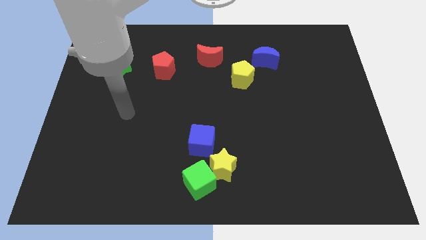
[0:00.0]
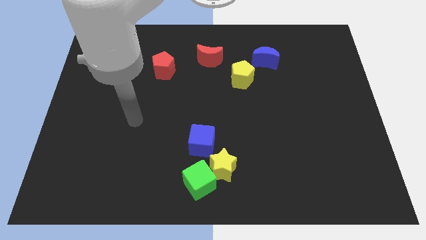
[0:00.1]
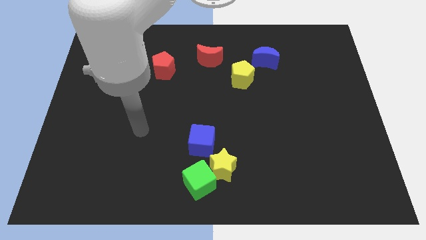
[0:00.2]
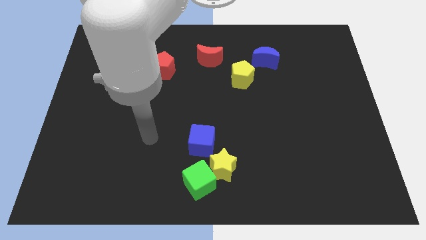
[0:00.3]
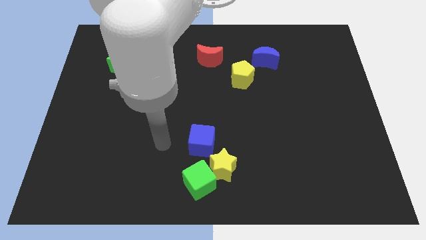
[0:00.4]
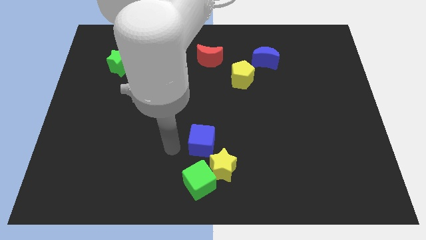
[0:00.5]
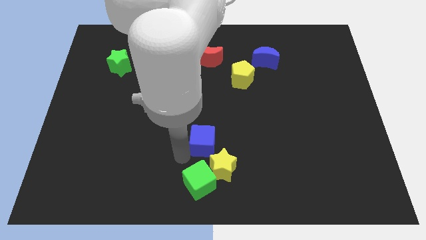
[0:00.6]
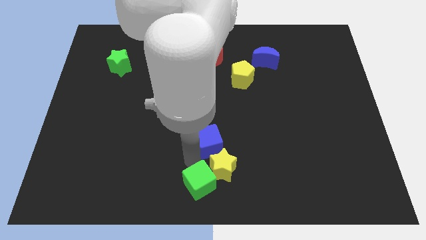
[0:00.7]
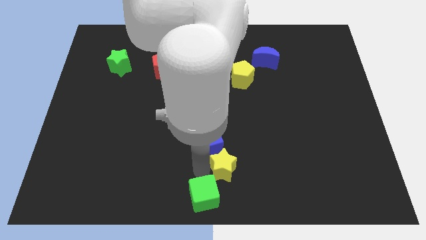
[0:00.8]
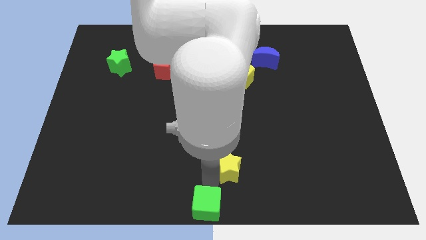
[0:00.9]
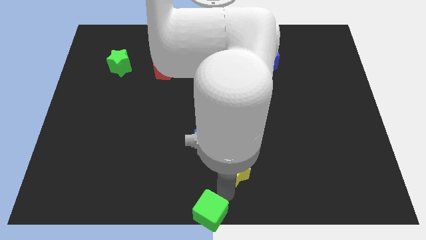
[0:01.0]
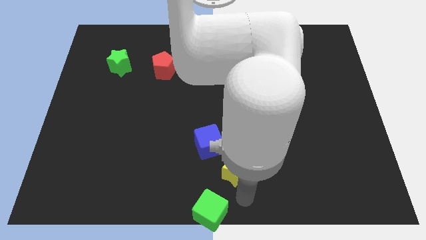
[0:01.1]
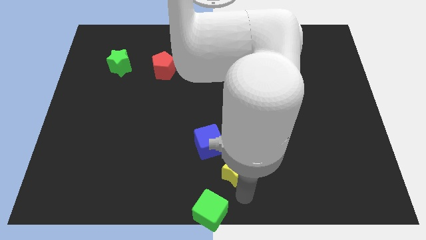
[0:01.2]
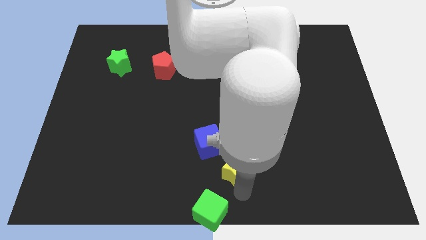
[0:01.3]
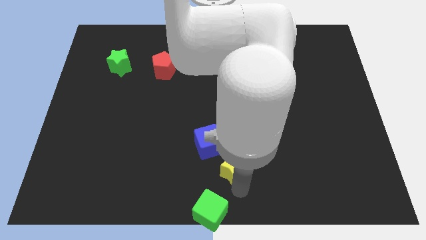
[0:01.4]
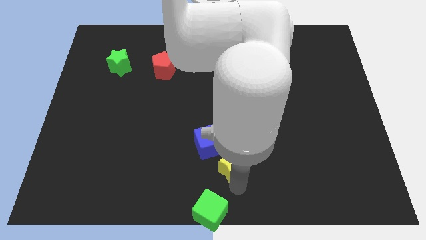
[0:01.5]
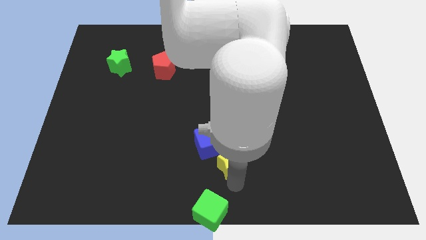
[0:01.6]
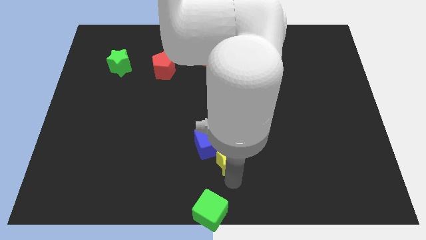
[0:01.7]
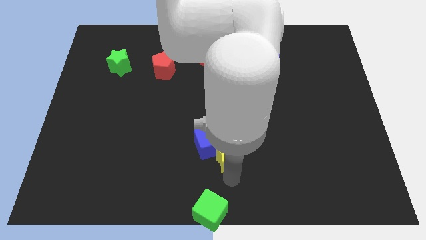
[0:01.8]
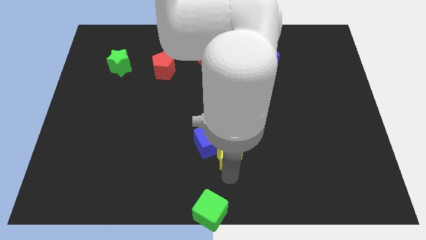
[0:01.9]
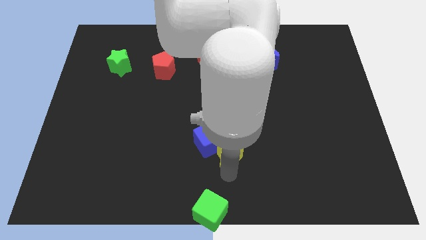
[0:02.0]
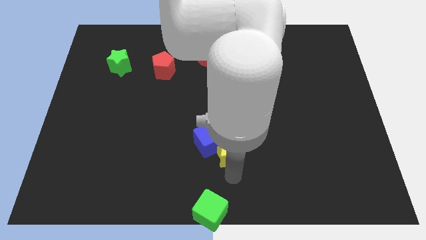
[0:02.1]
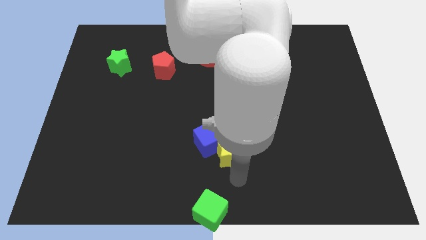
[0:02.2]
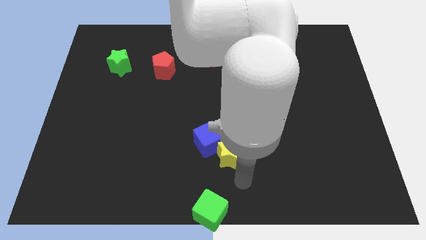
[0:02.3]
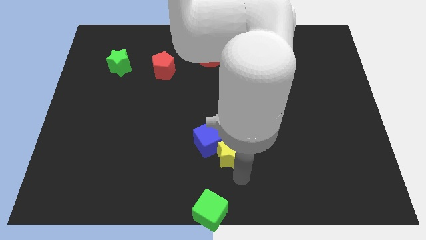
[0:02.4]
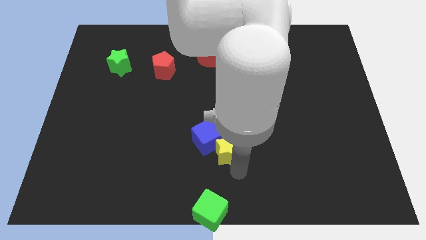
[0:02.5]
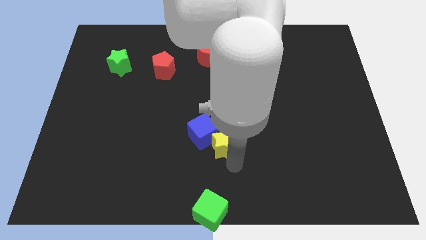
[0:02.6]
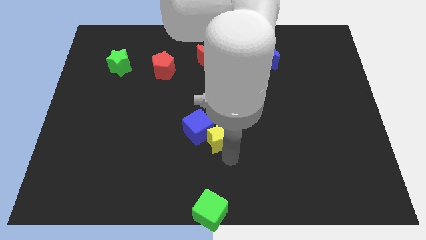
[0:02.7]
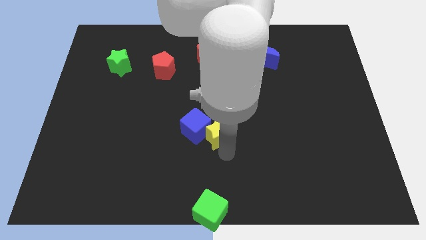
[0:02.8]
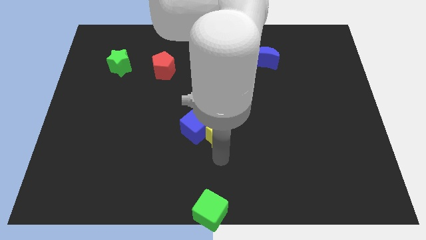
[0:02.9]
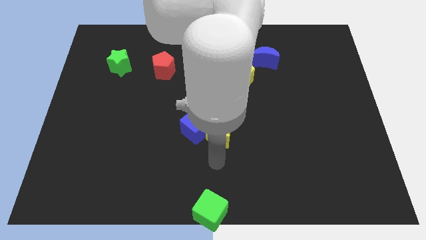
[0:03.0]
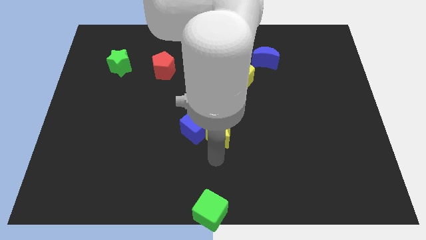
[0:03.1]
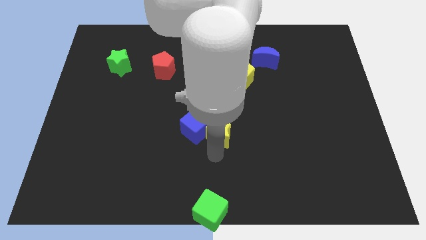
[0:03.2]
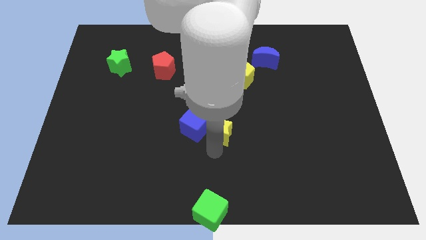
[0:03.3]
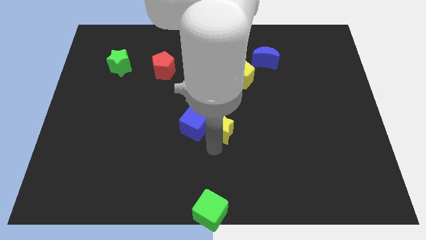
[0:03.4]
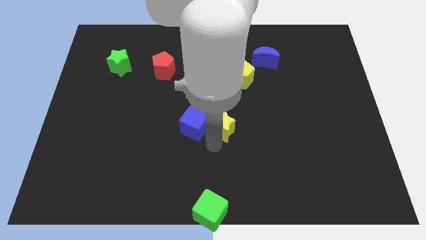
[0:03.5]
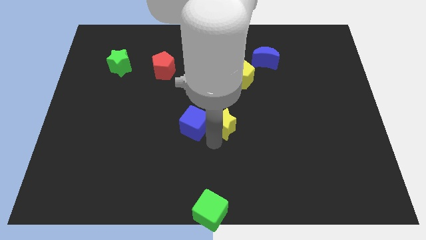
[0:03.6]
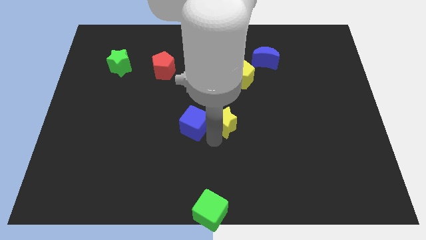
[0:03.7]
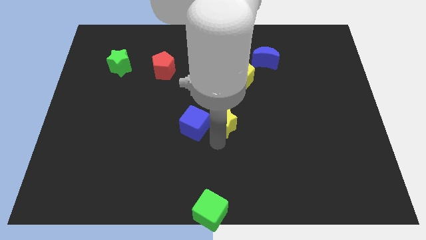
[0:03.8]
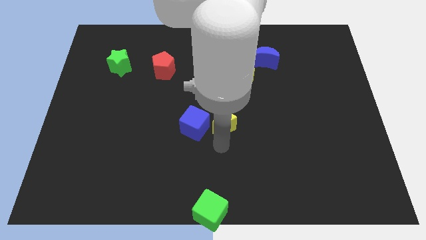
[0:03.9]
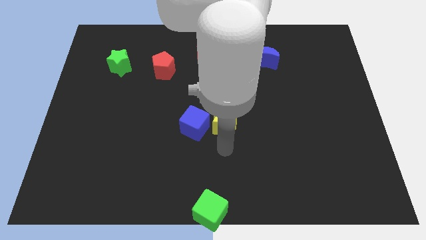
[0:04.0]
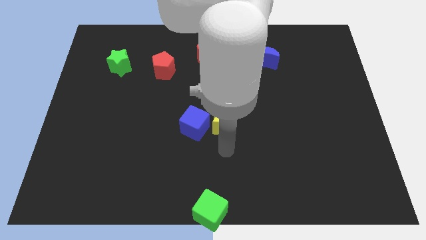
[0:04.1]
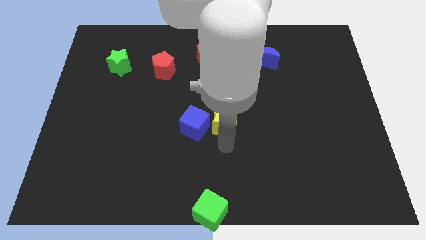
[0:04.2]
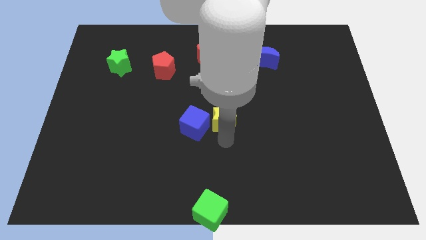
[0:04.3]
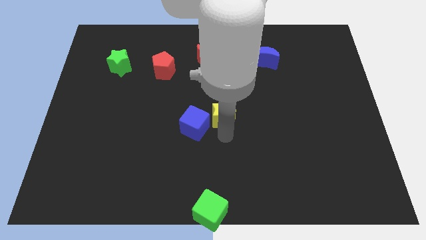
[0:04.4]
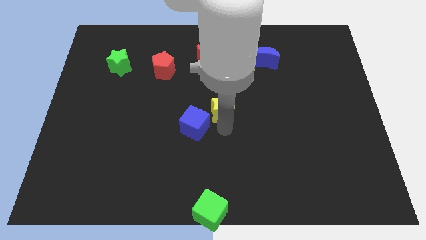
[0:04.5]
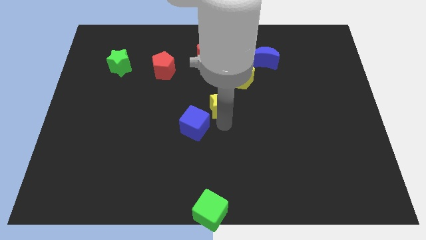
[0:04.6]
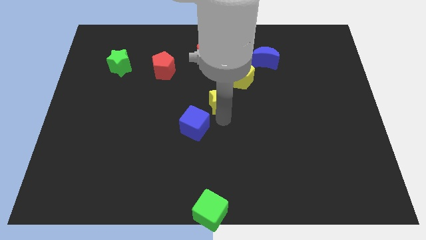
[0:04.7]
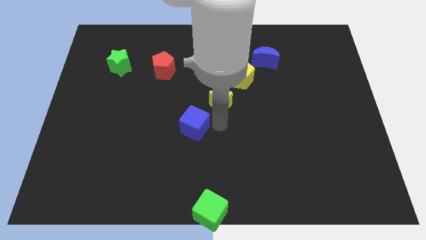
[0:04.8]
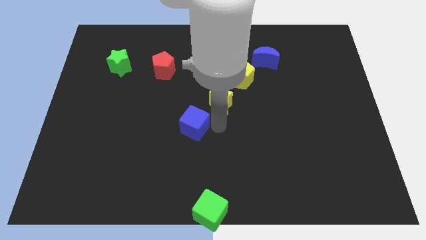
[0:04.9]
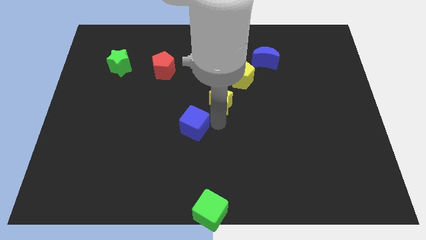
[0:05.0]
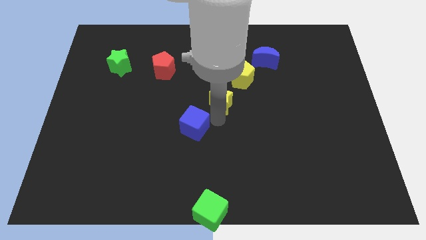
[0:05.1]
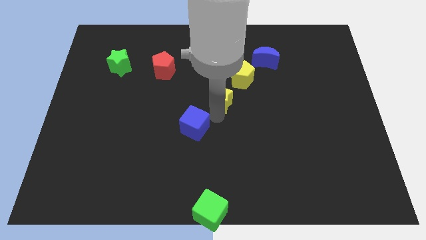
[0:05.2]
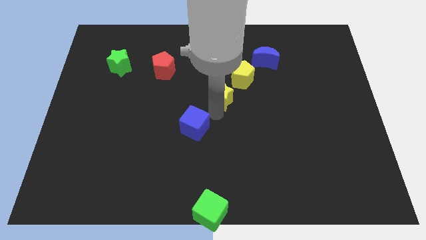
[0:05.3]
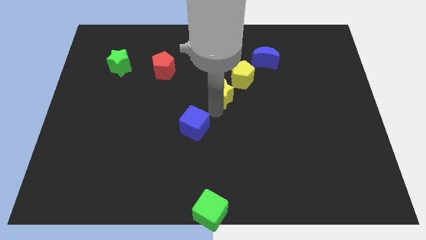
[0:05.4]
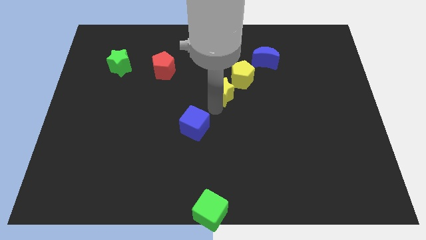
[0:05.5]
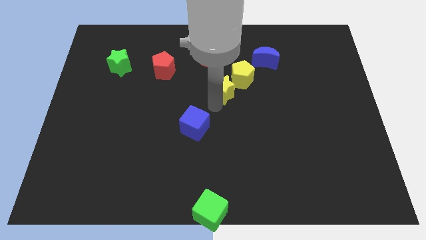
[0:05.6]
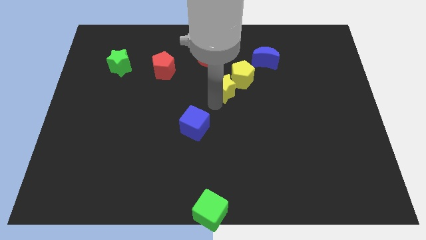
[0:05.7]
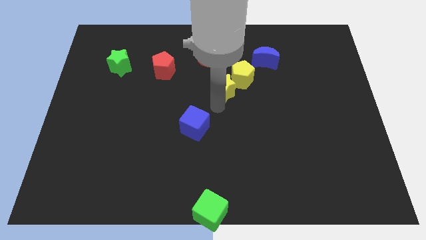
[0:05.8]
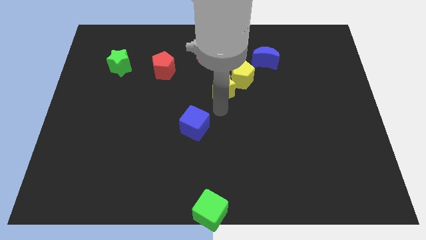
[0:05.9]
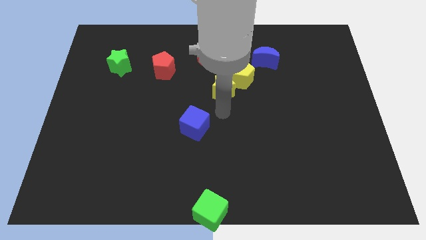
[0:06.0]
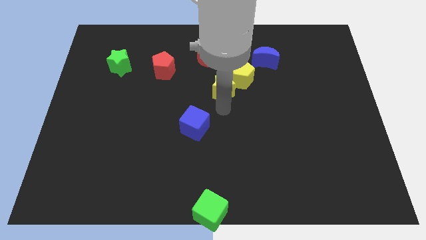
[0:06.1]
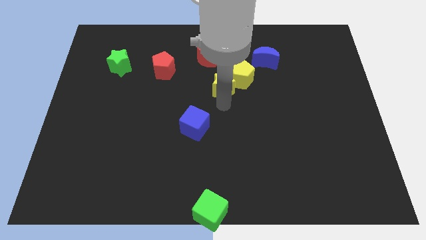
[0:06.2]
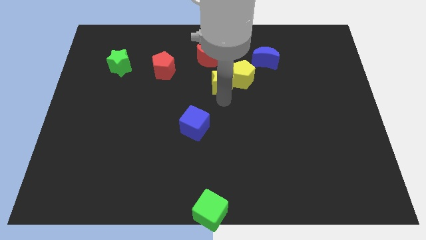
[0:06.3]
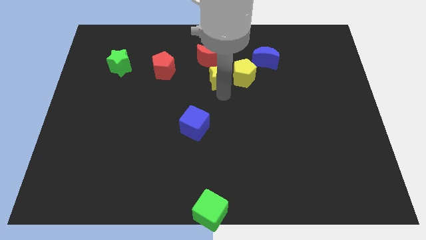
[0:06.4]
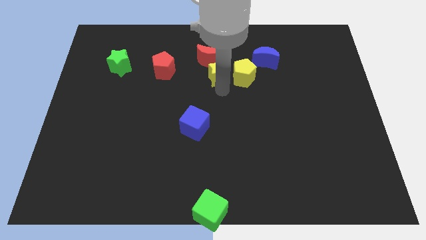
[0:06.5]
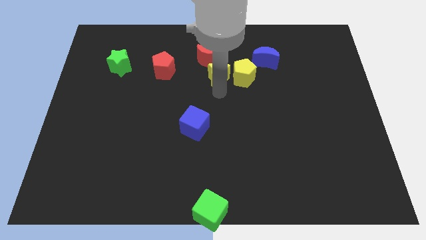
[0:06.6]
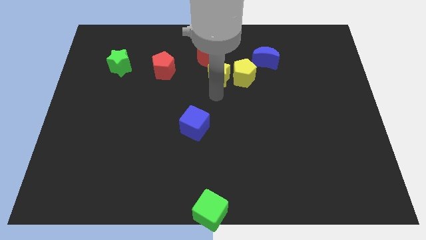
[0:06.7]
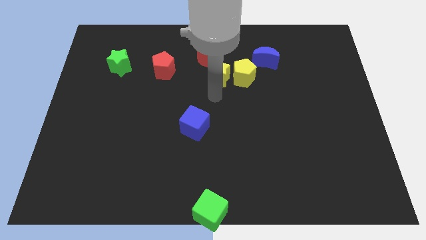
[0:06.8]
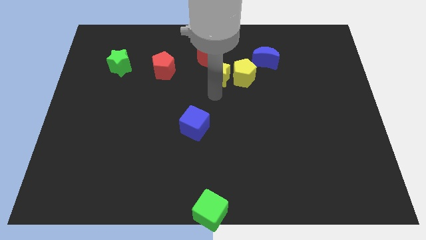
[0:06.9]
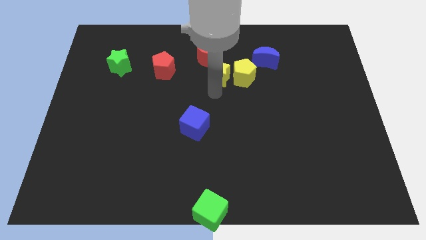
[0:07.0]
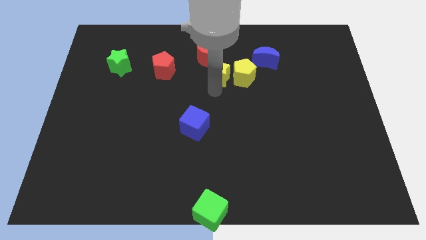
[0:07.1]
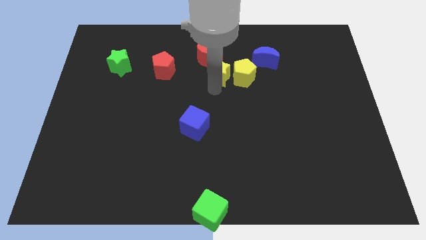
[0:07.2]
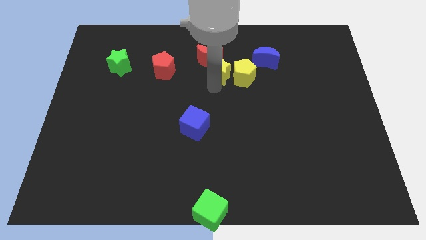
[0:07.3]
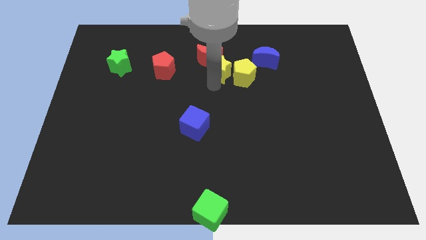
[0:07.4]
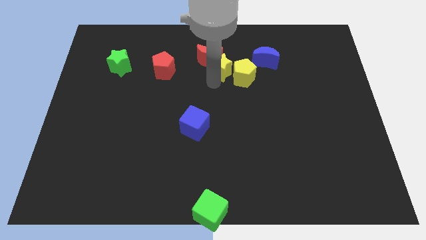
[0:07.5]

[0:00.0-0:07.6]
put the yellow star to the right of the red moon
